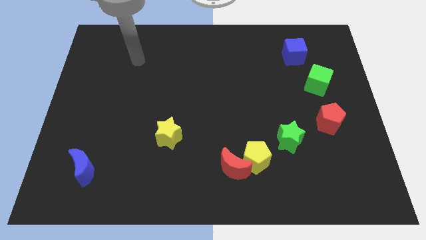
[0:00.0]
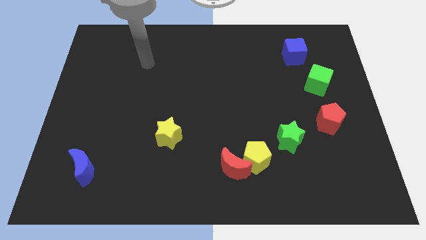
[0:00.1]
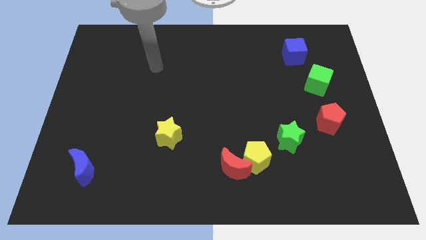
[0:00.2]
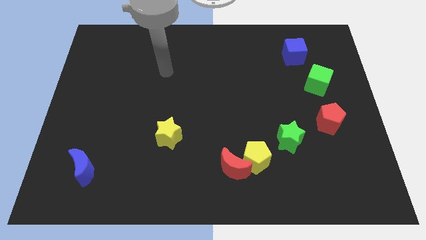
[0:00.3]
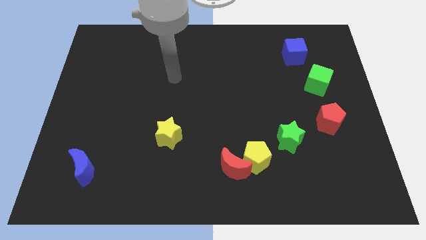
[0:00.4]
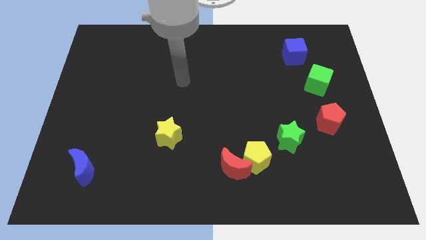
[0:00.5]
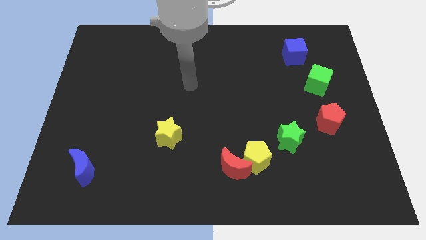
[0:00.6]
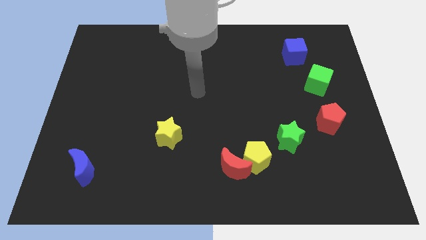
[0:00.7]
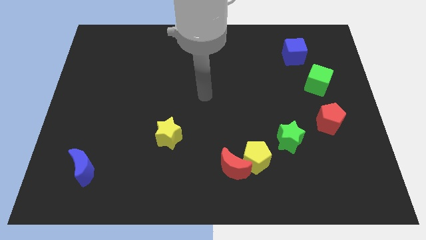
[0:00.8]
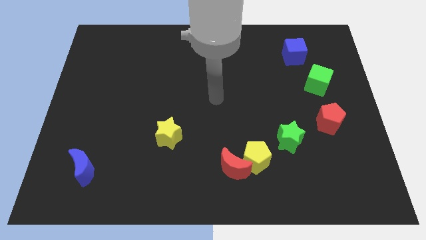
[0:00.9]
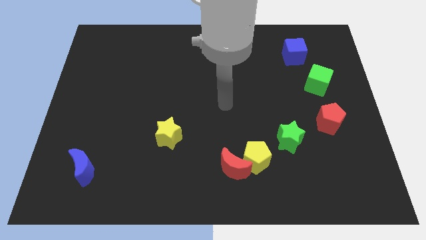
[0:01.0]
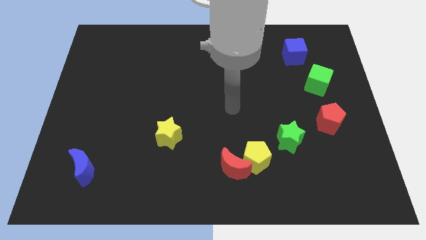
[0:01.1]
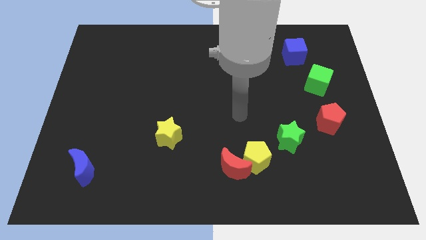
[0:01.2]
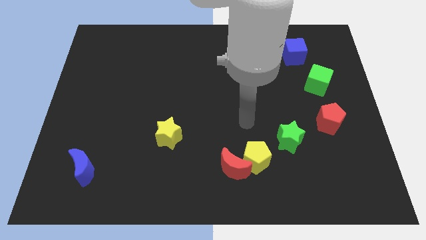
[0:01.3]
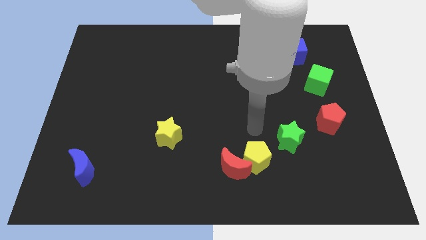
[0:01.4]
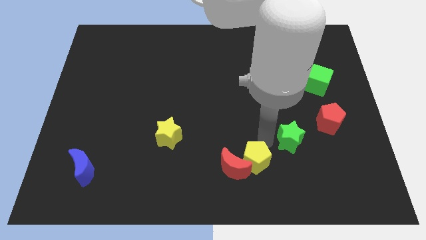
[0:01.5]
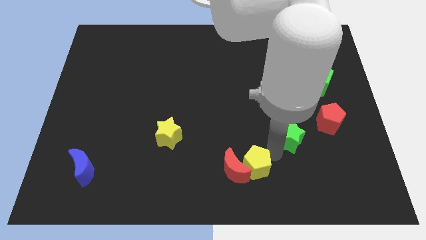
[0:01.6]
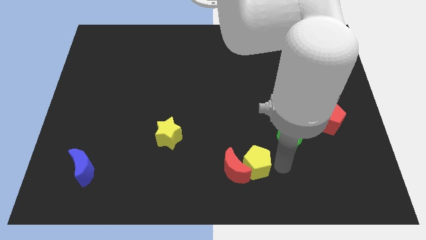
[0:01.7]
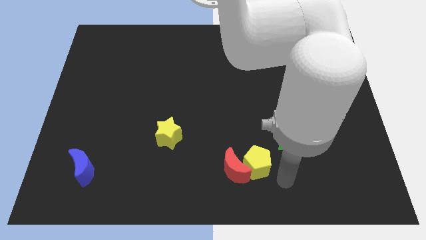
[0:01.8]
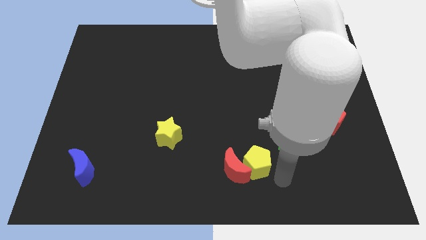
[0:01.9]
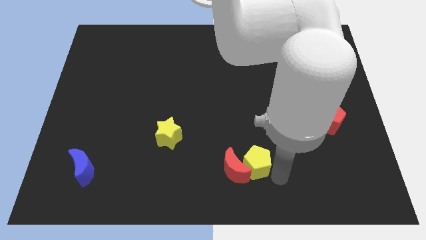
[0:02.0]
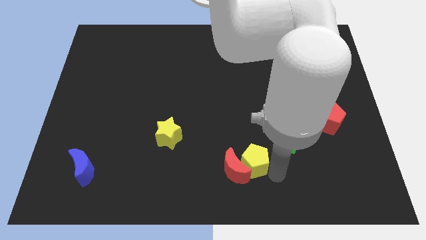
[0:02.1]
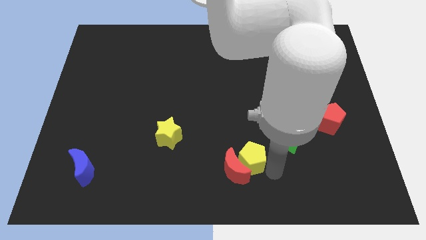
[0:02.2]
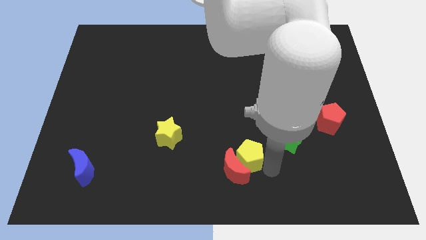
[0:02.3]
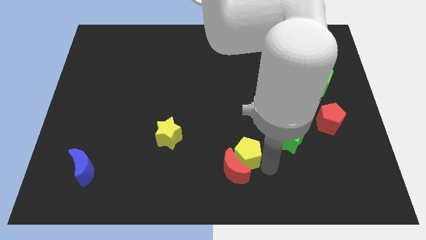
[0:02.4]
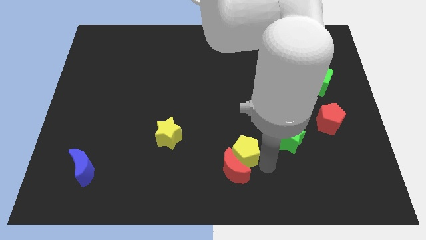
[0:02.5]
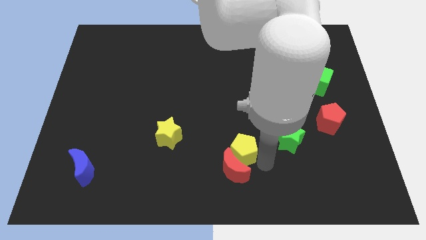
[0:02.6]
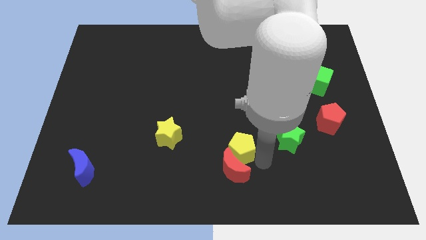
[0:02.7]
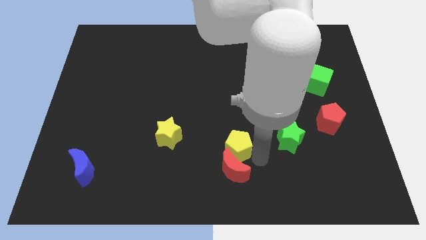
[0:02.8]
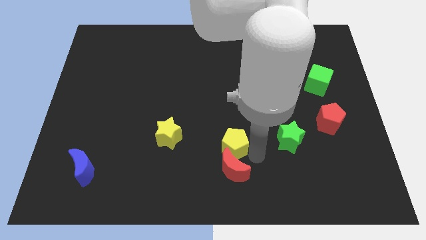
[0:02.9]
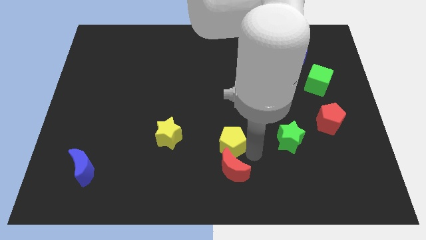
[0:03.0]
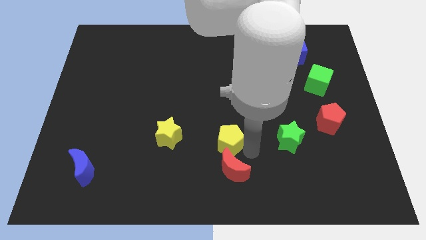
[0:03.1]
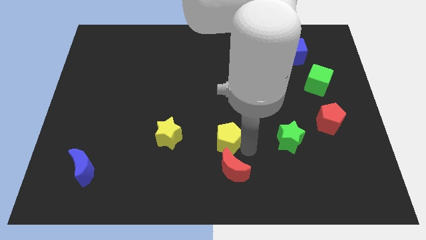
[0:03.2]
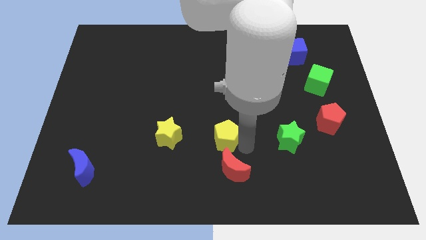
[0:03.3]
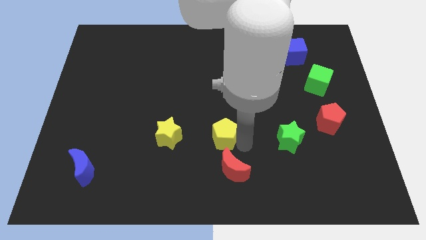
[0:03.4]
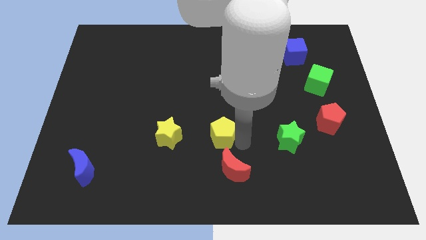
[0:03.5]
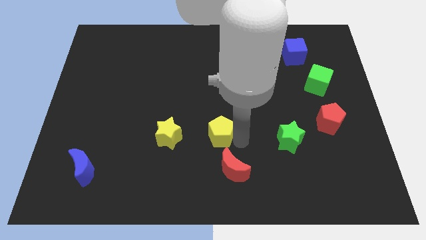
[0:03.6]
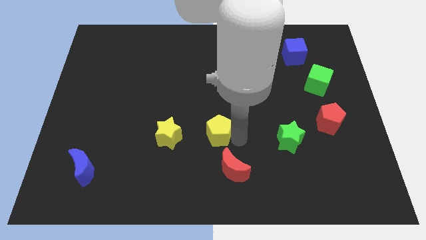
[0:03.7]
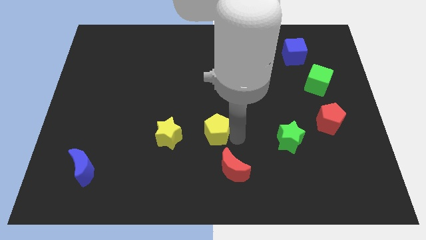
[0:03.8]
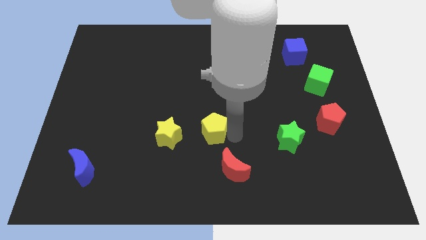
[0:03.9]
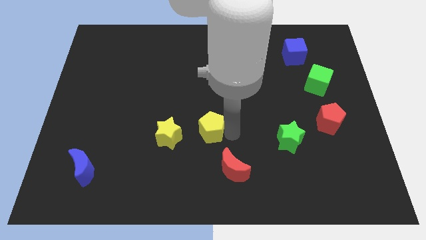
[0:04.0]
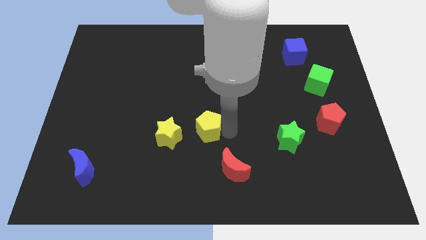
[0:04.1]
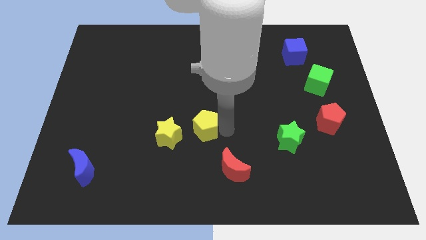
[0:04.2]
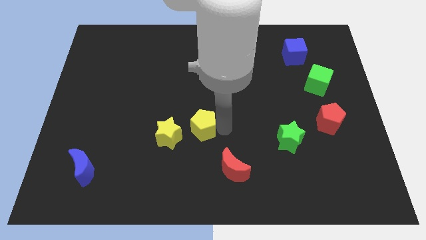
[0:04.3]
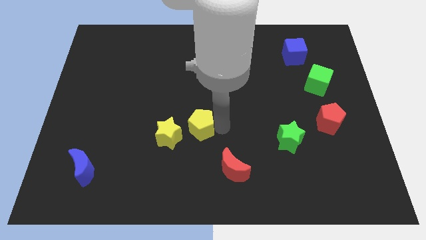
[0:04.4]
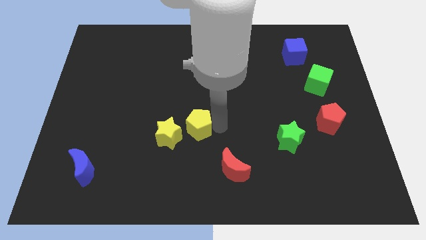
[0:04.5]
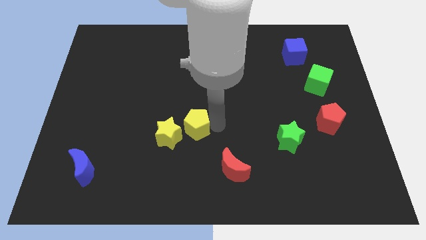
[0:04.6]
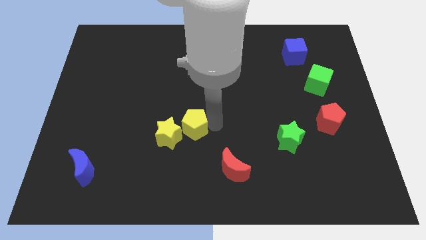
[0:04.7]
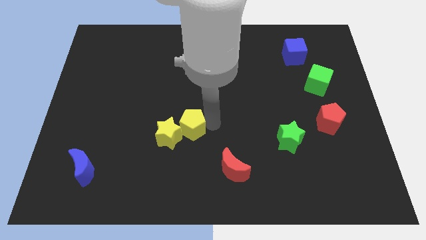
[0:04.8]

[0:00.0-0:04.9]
put the yellow pentagon to the yellow star

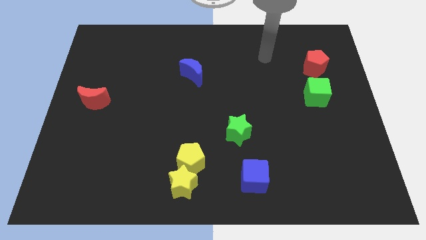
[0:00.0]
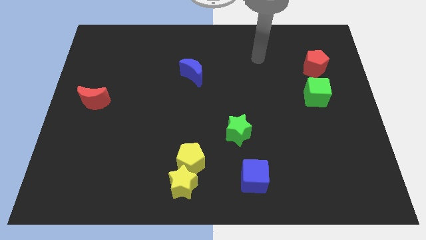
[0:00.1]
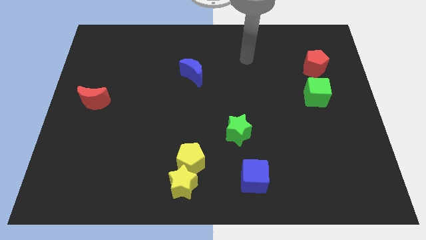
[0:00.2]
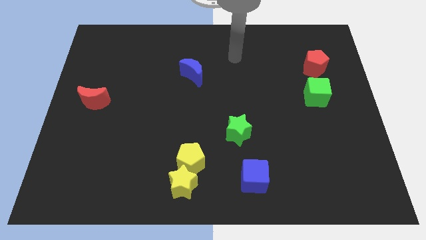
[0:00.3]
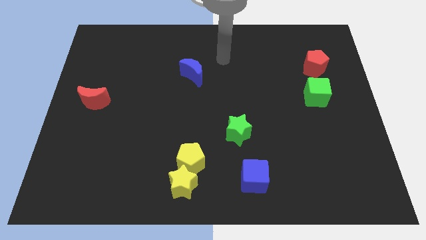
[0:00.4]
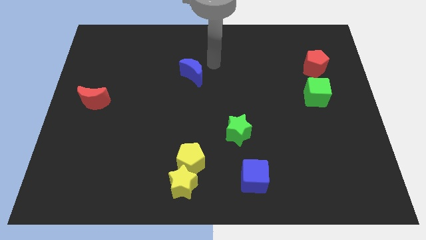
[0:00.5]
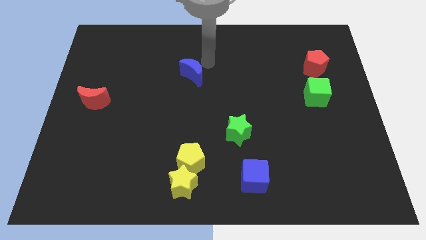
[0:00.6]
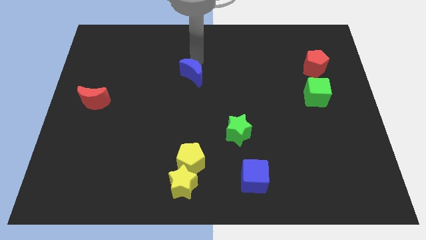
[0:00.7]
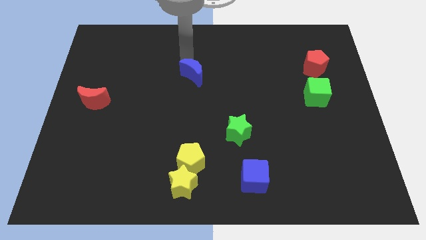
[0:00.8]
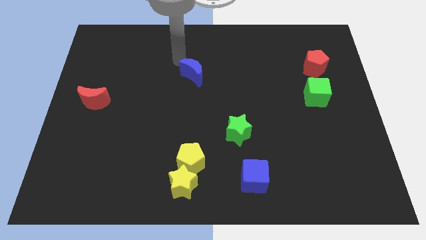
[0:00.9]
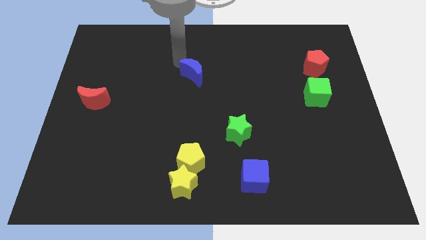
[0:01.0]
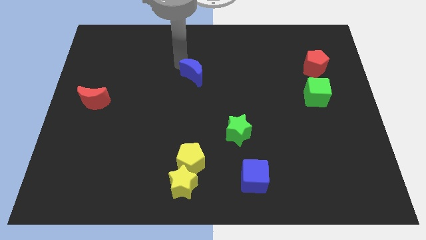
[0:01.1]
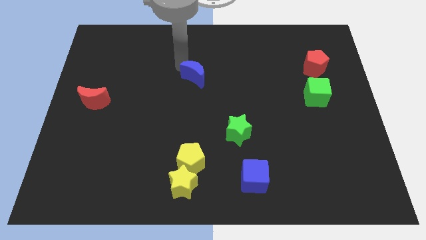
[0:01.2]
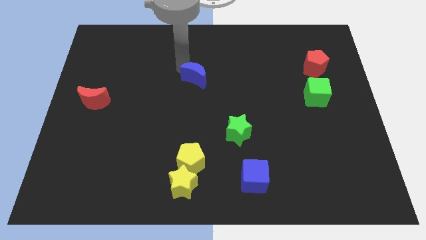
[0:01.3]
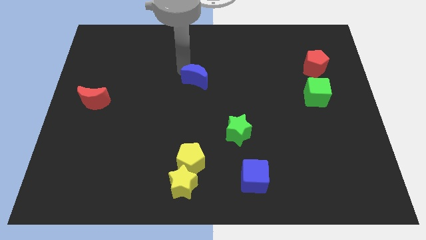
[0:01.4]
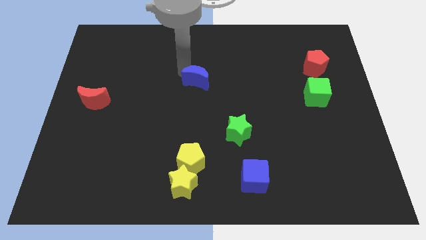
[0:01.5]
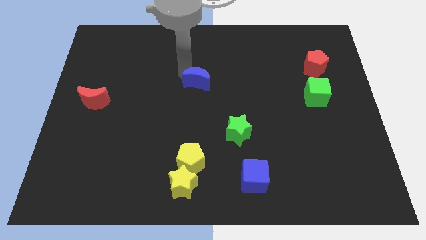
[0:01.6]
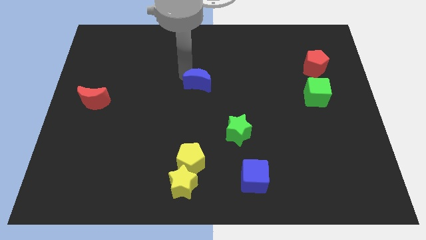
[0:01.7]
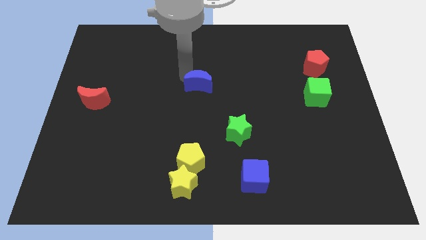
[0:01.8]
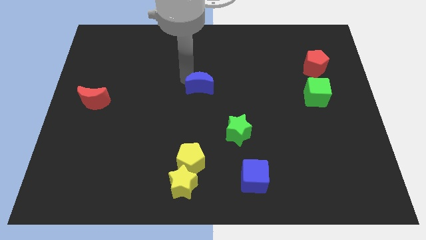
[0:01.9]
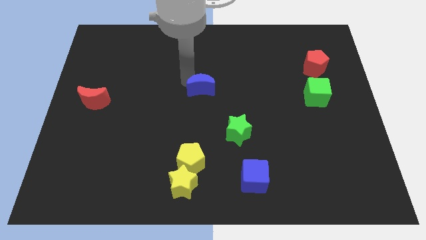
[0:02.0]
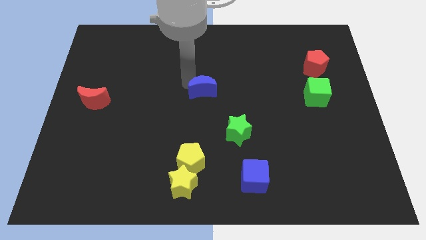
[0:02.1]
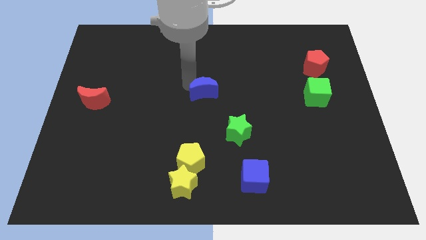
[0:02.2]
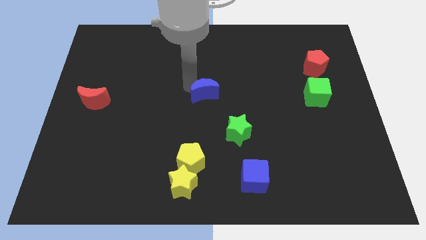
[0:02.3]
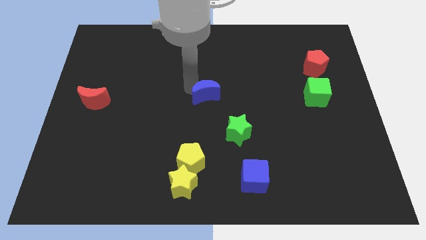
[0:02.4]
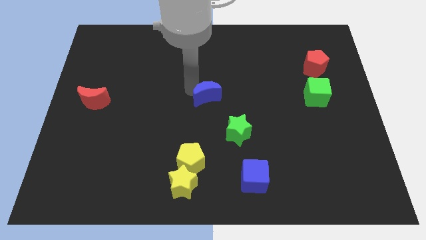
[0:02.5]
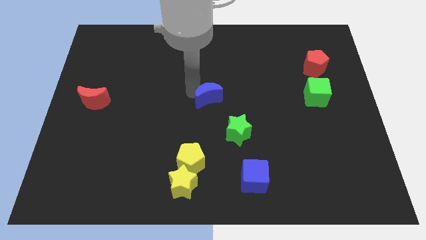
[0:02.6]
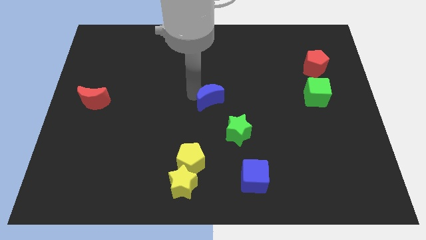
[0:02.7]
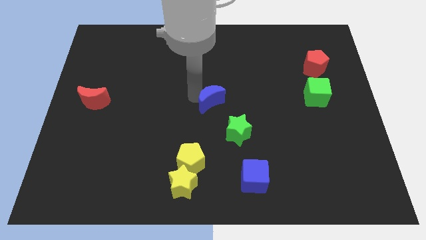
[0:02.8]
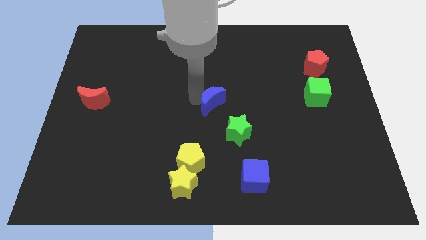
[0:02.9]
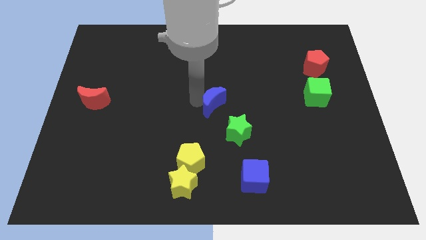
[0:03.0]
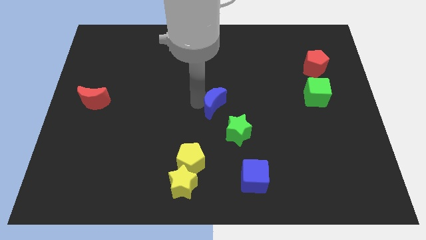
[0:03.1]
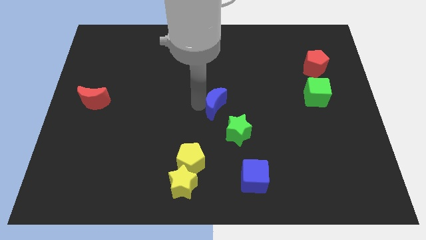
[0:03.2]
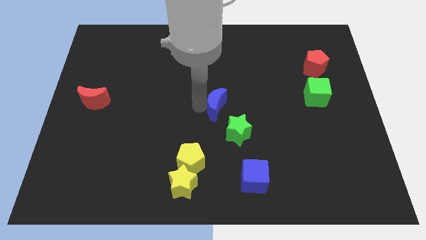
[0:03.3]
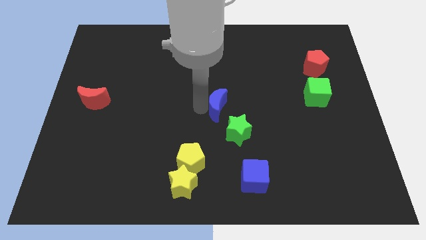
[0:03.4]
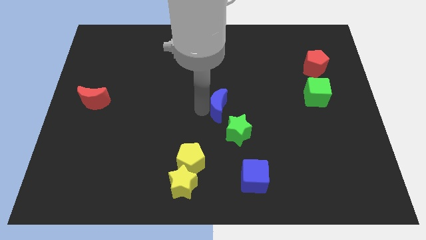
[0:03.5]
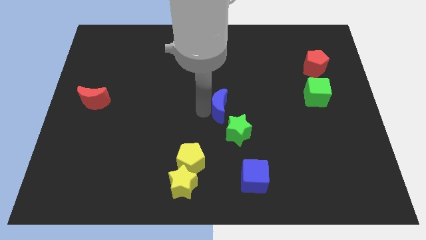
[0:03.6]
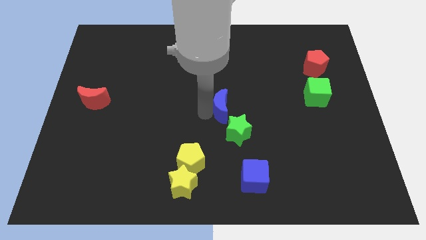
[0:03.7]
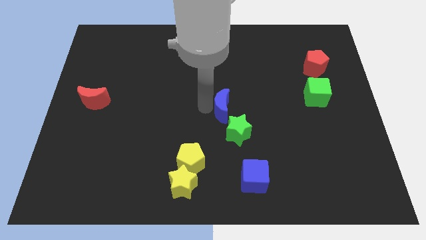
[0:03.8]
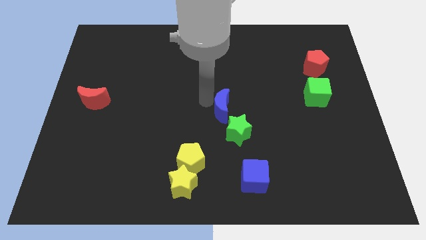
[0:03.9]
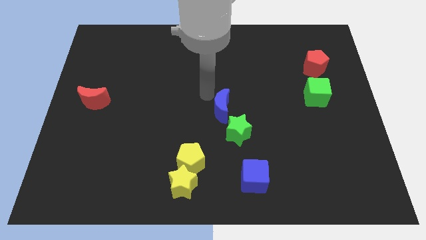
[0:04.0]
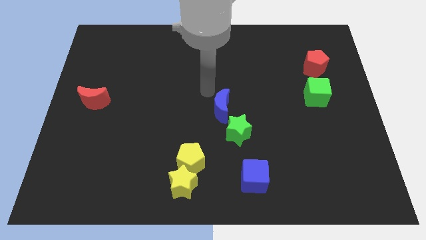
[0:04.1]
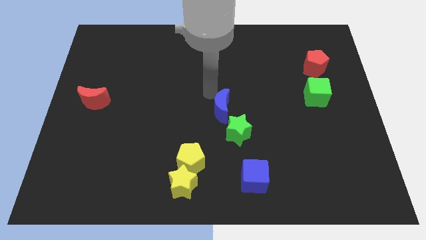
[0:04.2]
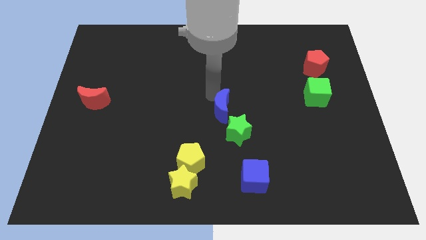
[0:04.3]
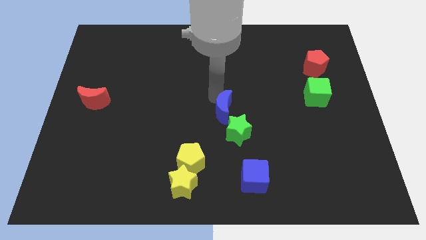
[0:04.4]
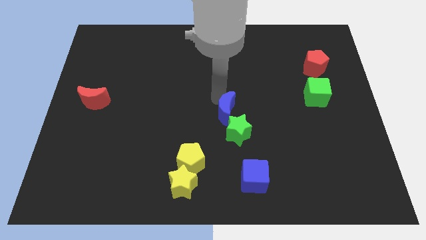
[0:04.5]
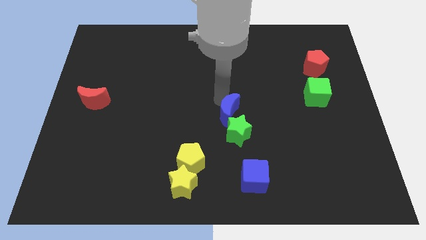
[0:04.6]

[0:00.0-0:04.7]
slide the blue moon to the green star
